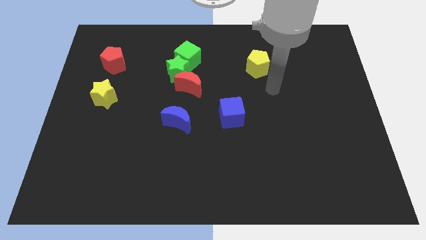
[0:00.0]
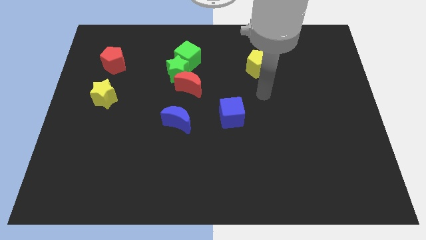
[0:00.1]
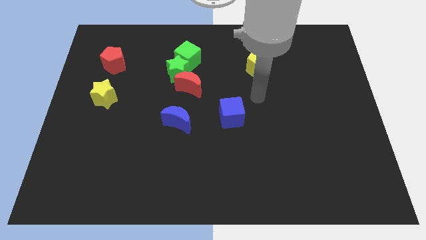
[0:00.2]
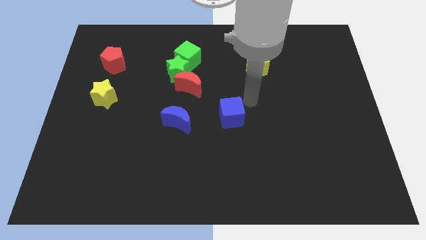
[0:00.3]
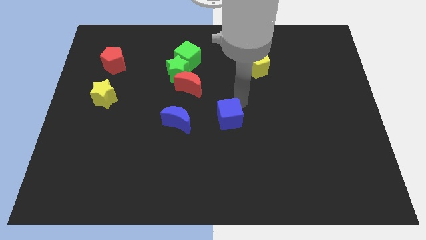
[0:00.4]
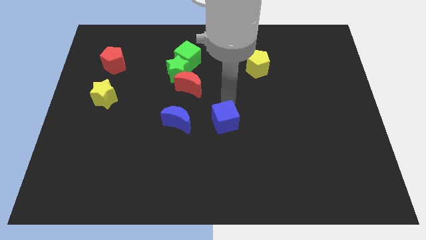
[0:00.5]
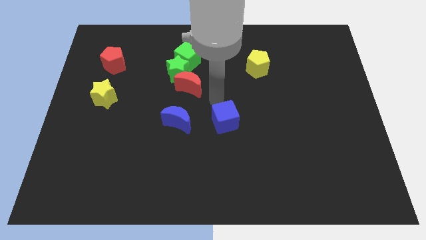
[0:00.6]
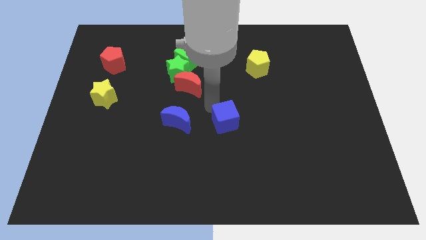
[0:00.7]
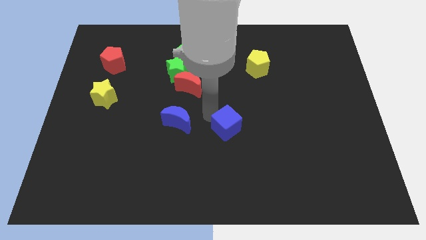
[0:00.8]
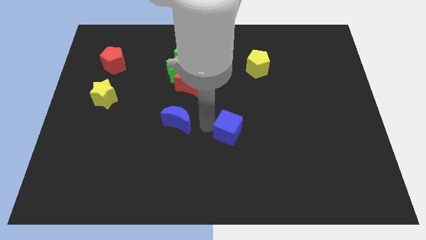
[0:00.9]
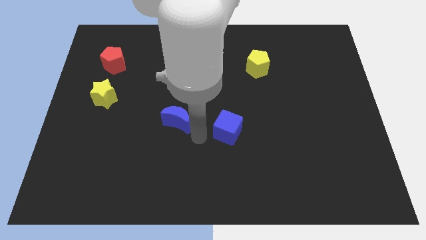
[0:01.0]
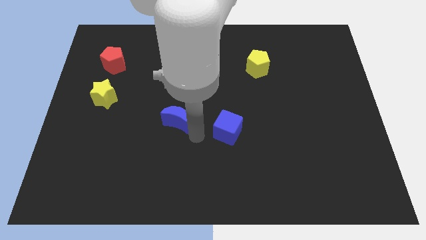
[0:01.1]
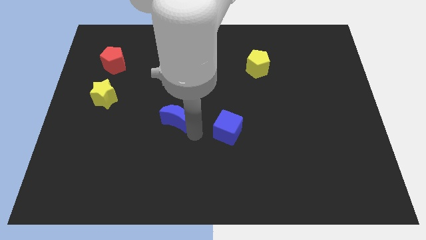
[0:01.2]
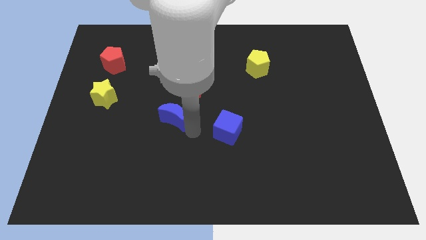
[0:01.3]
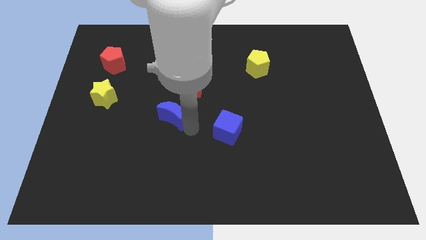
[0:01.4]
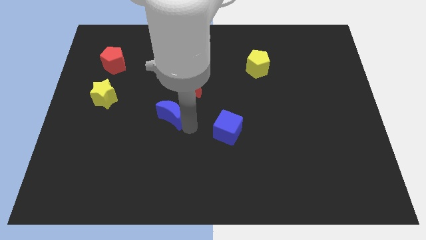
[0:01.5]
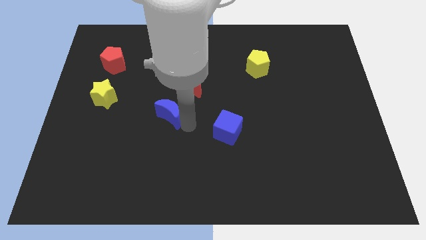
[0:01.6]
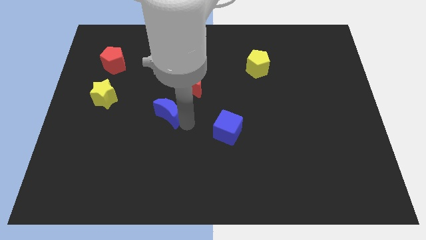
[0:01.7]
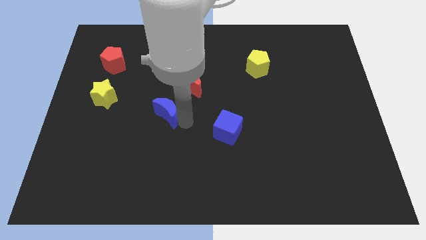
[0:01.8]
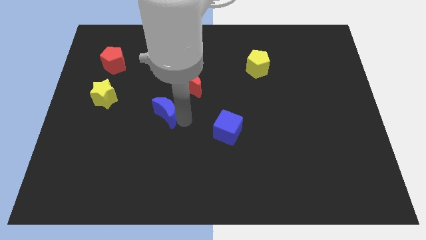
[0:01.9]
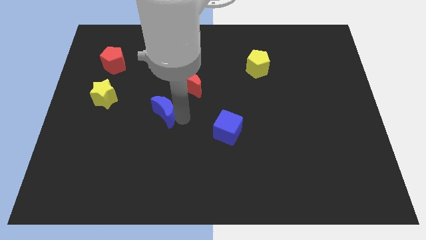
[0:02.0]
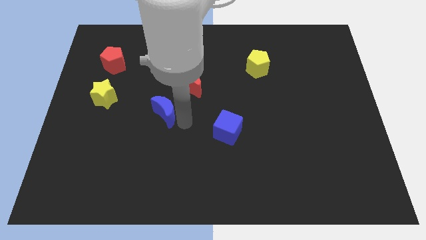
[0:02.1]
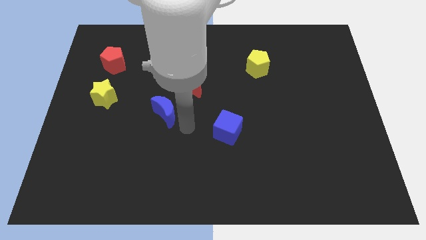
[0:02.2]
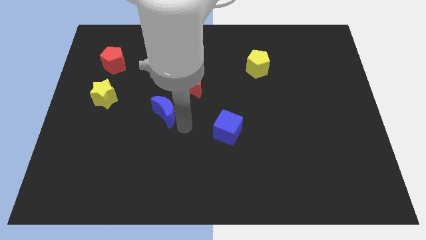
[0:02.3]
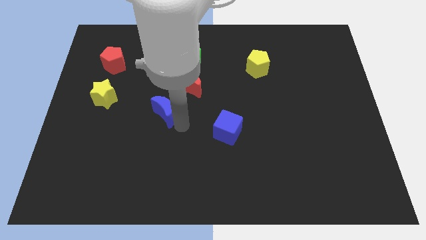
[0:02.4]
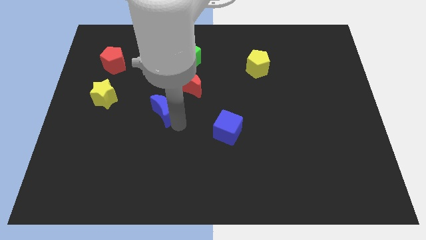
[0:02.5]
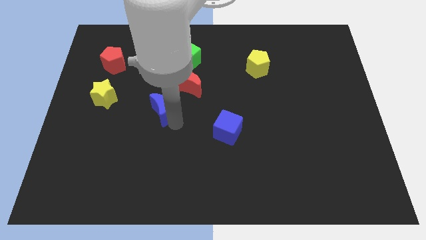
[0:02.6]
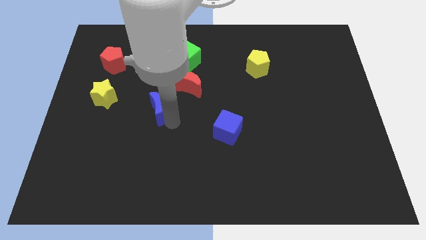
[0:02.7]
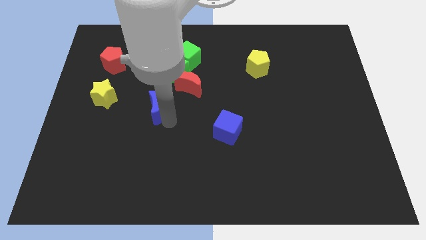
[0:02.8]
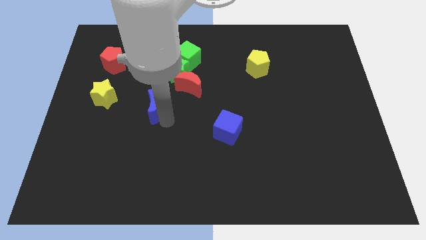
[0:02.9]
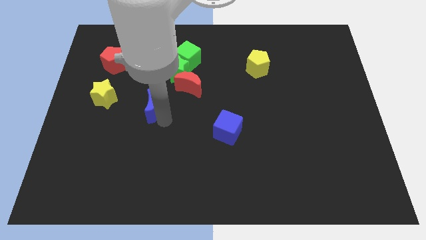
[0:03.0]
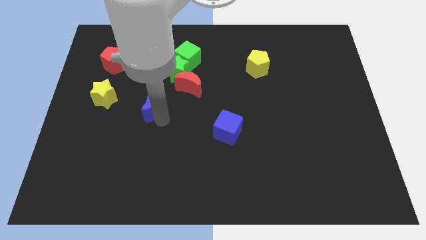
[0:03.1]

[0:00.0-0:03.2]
move the blue moon up and to the left somewhat

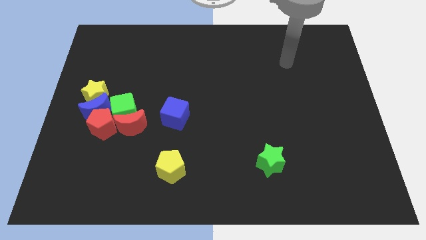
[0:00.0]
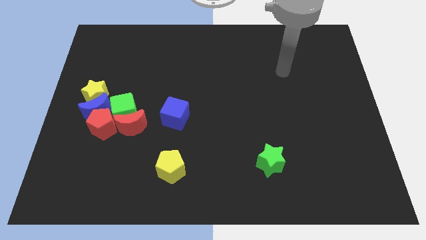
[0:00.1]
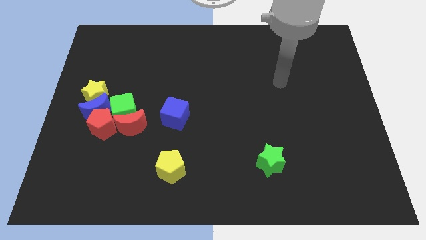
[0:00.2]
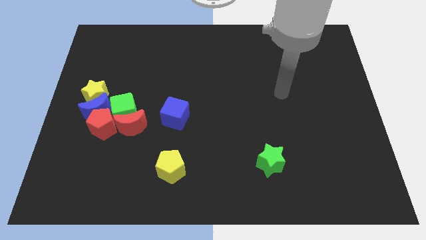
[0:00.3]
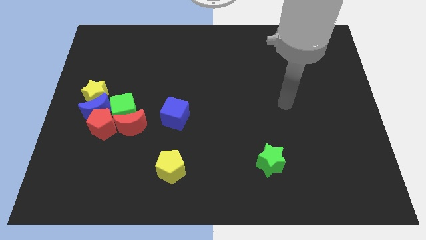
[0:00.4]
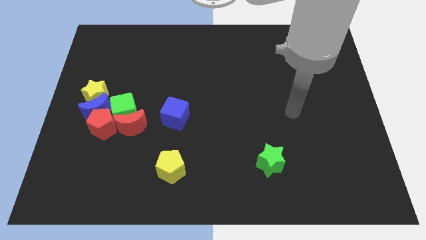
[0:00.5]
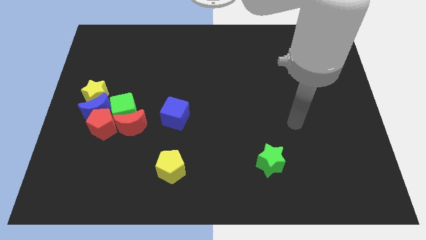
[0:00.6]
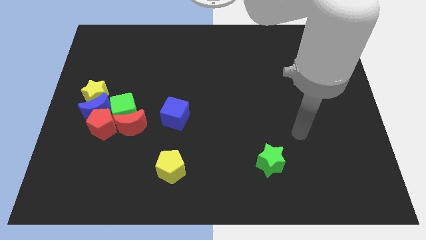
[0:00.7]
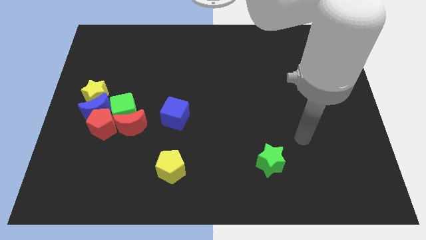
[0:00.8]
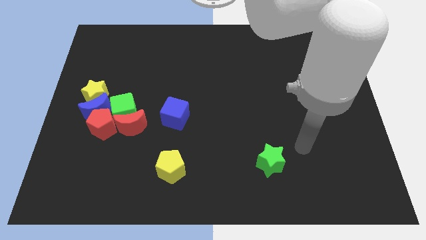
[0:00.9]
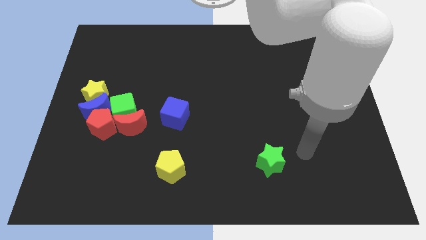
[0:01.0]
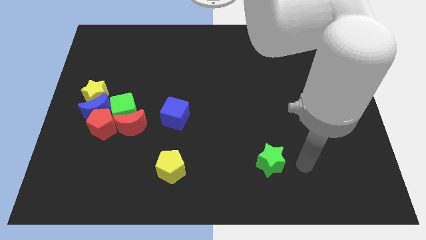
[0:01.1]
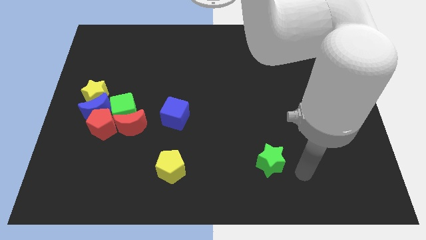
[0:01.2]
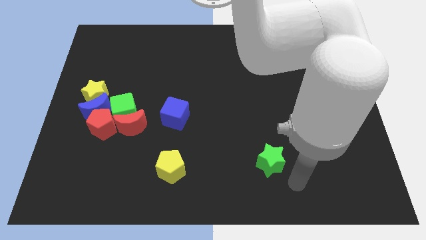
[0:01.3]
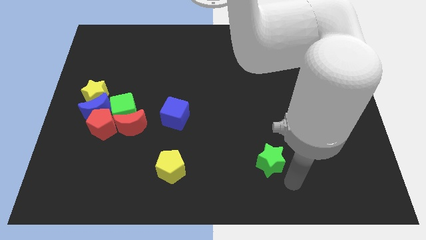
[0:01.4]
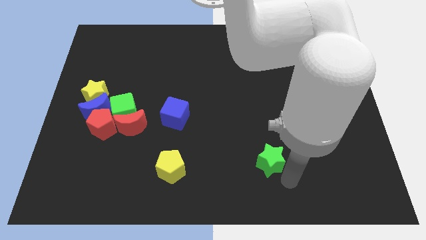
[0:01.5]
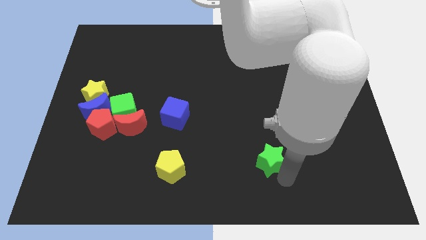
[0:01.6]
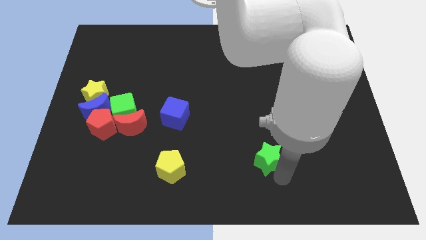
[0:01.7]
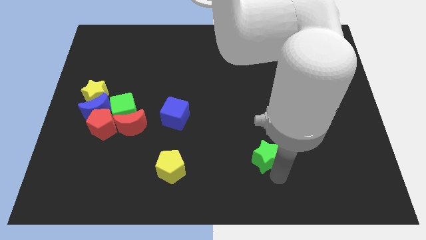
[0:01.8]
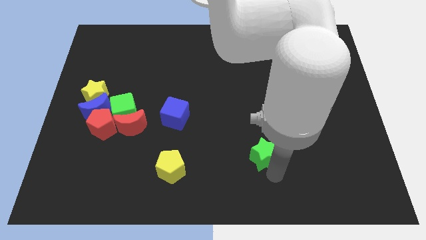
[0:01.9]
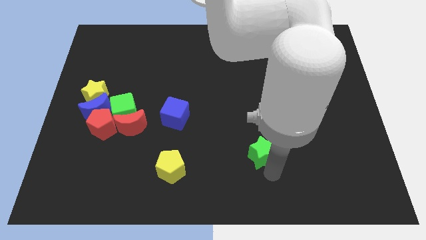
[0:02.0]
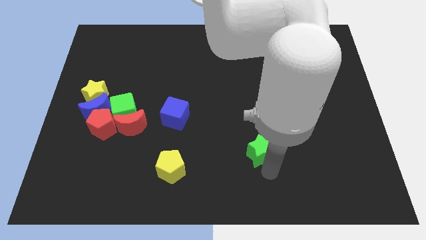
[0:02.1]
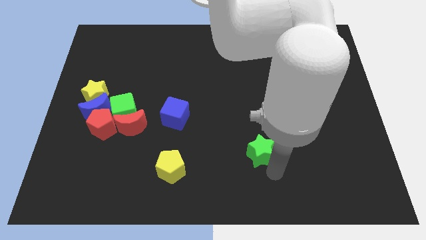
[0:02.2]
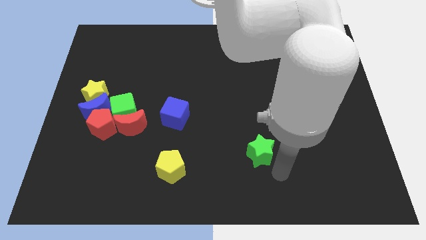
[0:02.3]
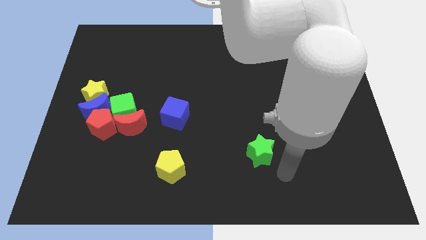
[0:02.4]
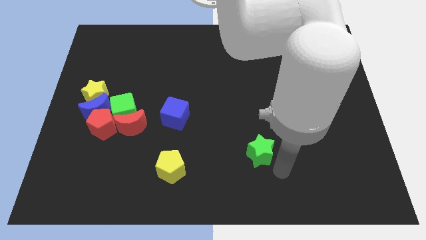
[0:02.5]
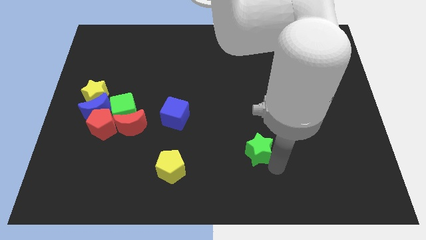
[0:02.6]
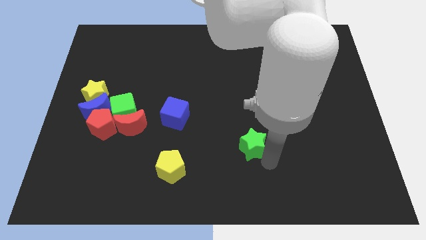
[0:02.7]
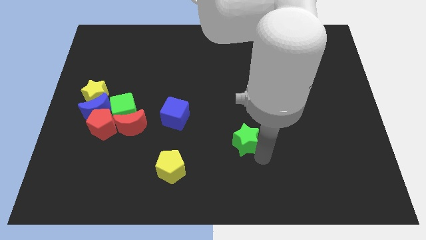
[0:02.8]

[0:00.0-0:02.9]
push the green star somewhat diagonally up and left

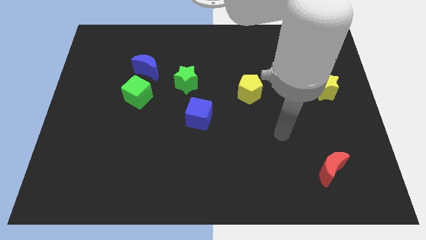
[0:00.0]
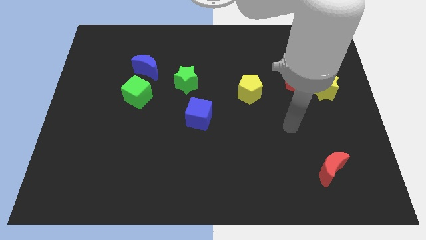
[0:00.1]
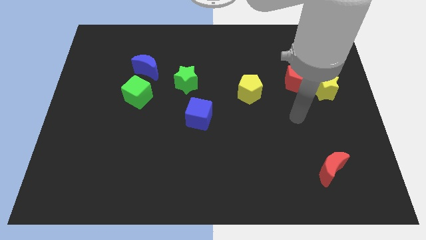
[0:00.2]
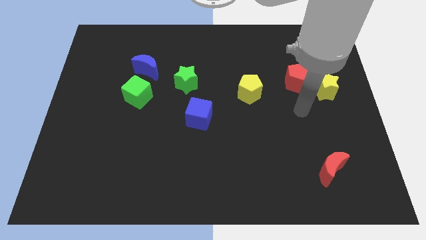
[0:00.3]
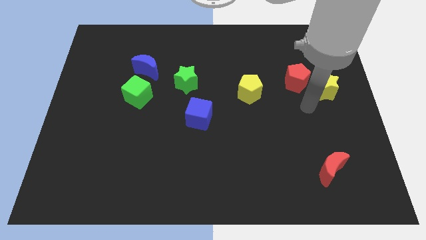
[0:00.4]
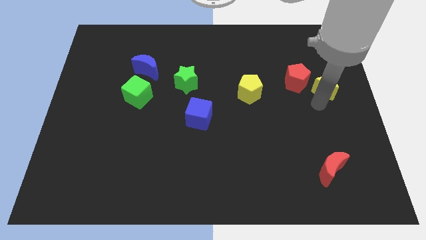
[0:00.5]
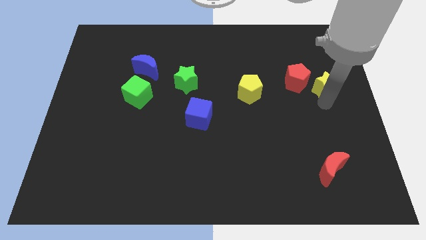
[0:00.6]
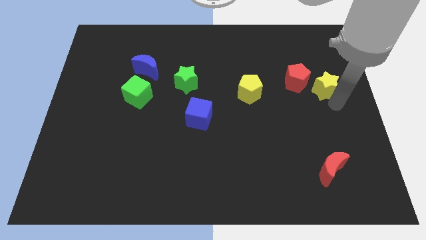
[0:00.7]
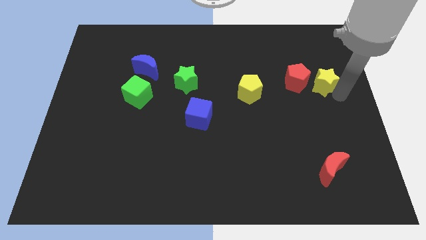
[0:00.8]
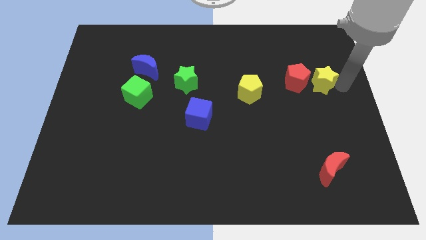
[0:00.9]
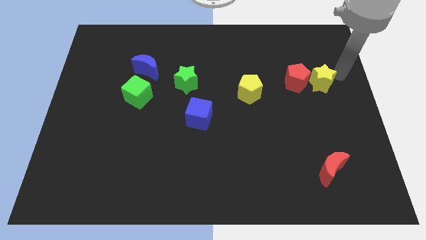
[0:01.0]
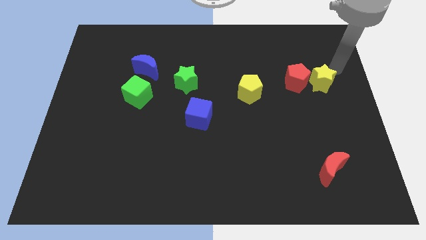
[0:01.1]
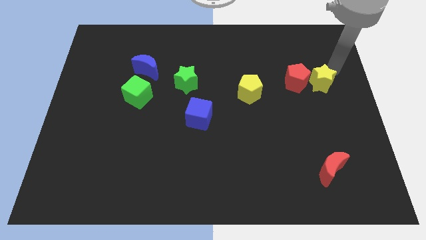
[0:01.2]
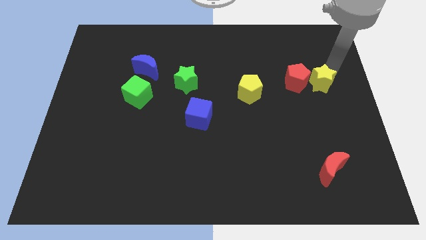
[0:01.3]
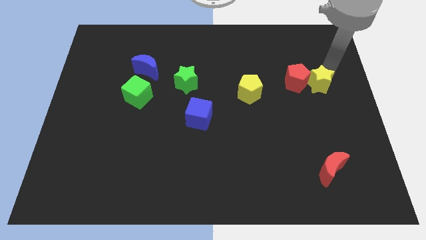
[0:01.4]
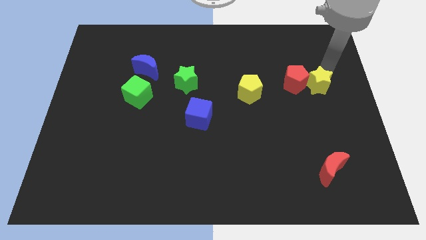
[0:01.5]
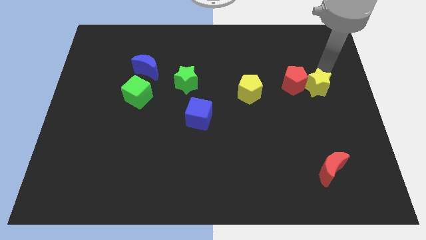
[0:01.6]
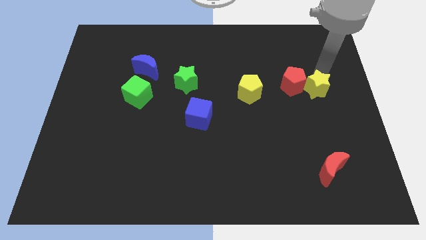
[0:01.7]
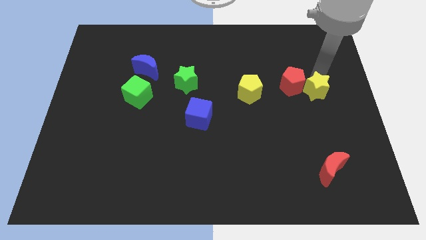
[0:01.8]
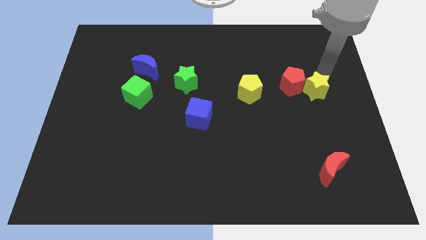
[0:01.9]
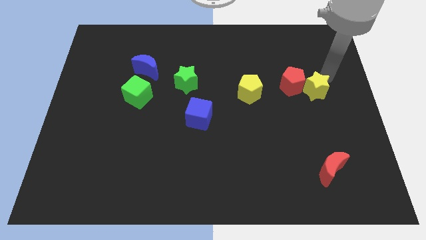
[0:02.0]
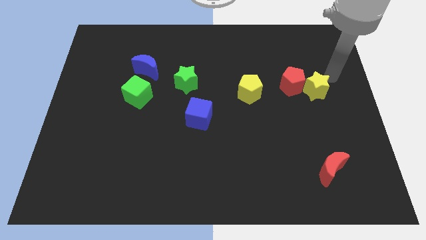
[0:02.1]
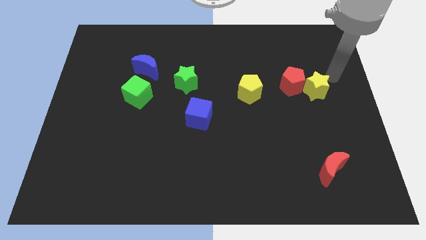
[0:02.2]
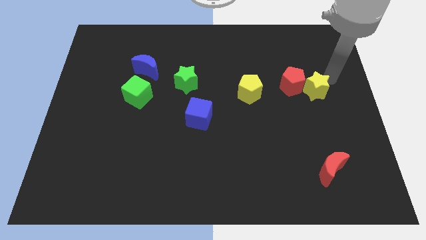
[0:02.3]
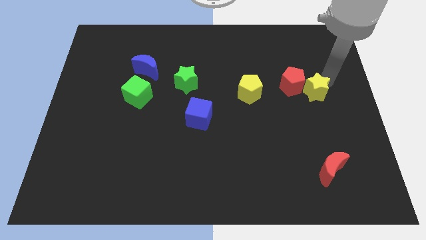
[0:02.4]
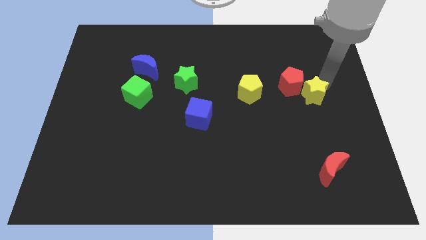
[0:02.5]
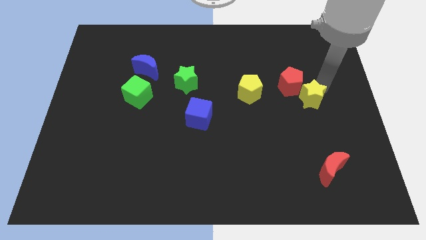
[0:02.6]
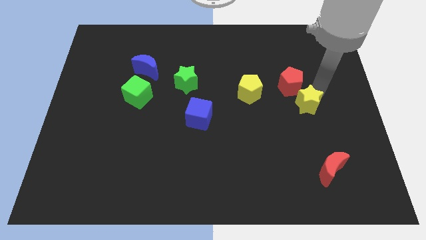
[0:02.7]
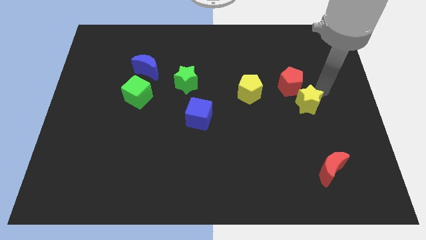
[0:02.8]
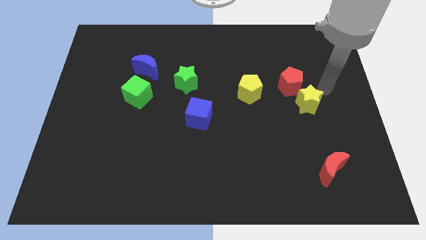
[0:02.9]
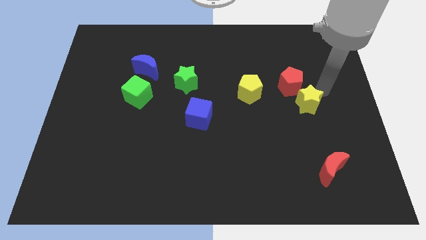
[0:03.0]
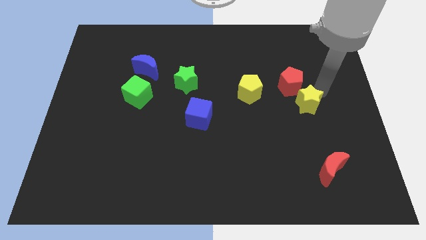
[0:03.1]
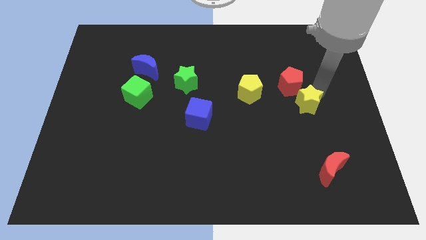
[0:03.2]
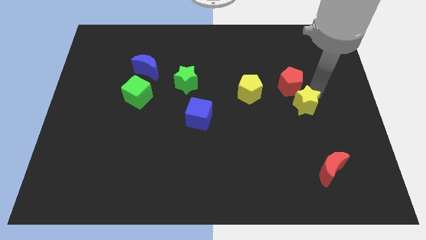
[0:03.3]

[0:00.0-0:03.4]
slightly push the yellow star down and then left
